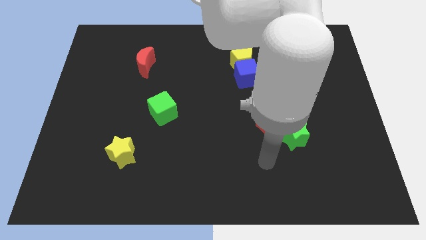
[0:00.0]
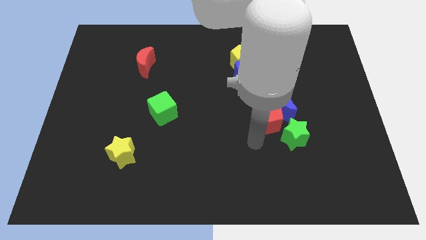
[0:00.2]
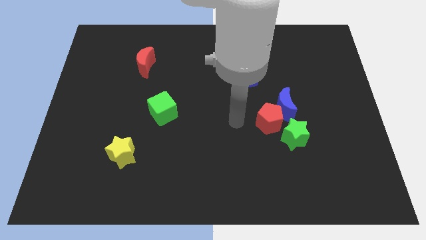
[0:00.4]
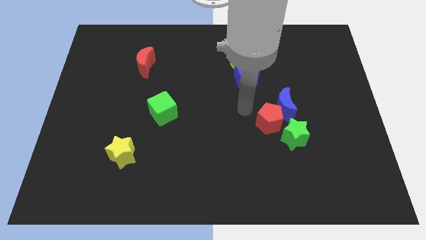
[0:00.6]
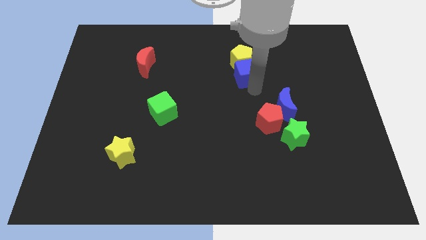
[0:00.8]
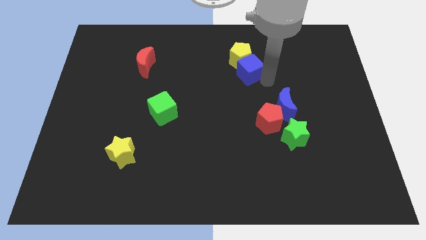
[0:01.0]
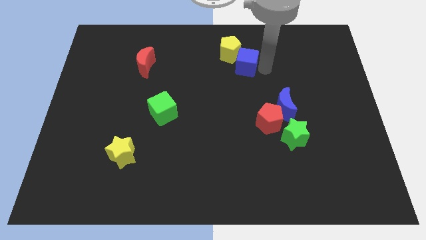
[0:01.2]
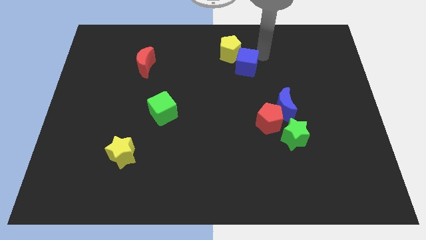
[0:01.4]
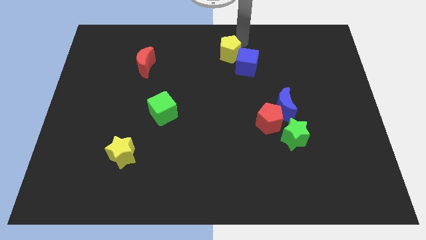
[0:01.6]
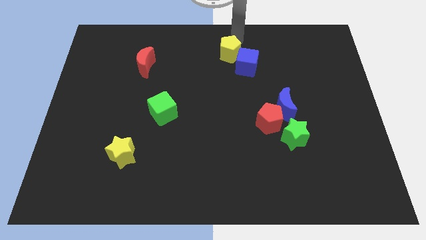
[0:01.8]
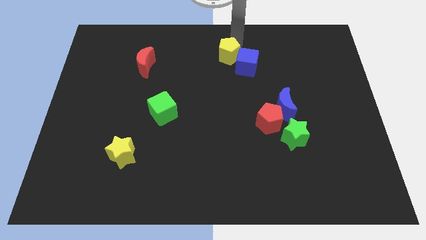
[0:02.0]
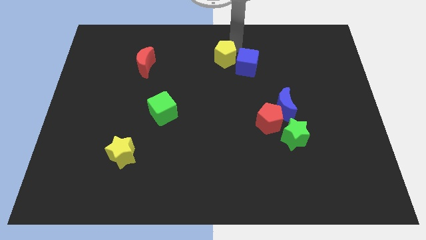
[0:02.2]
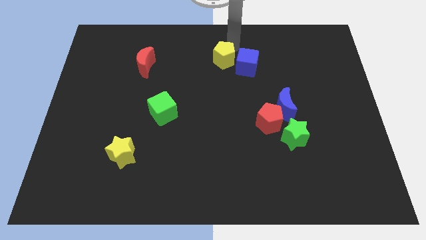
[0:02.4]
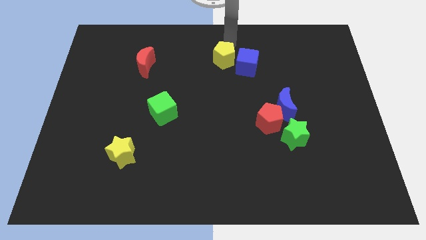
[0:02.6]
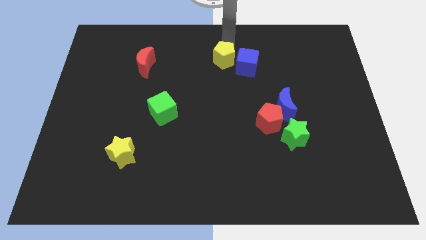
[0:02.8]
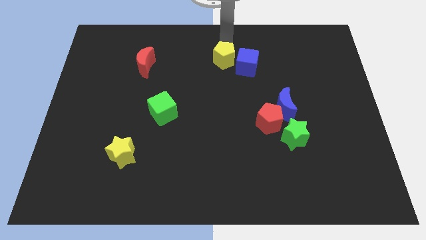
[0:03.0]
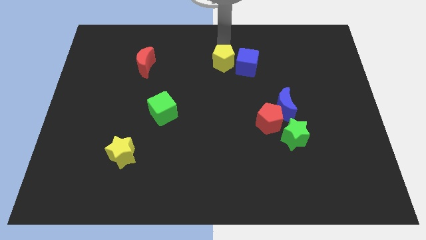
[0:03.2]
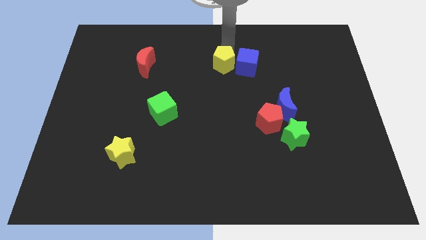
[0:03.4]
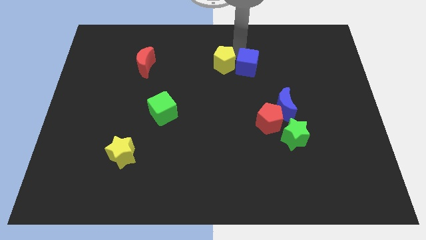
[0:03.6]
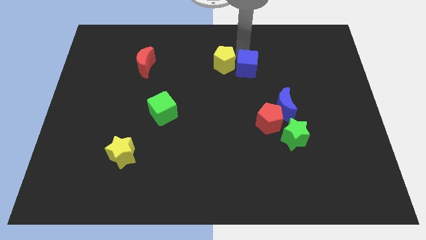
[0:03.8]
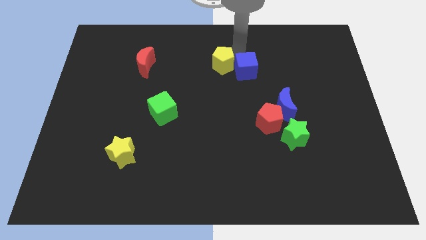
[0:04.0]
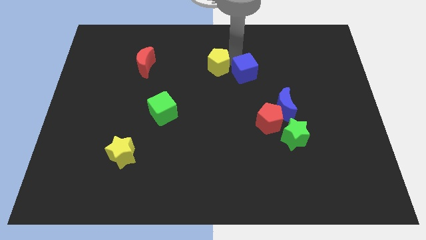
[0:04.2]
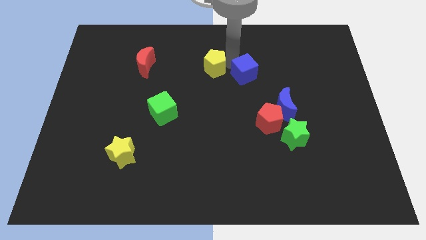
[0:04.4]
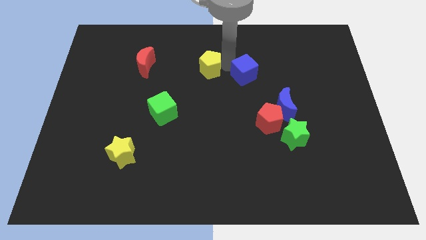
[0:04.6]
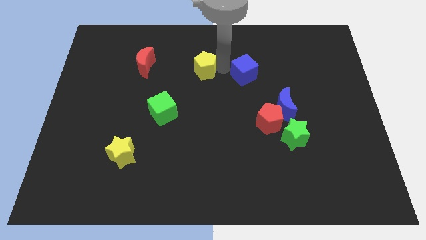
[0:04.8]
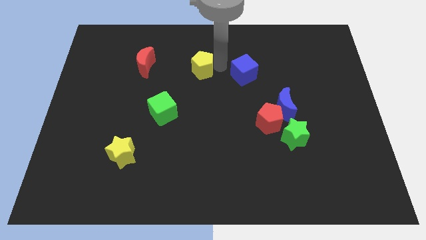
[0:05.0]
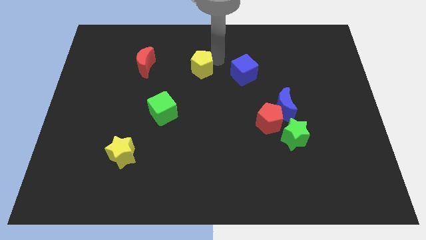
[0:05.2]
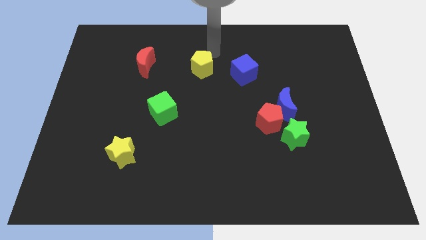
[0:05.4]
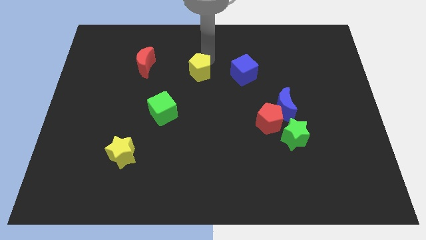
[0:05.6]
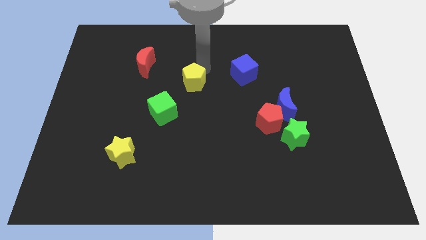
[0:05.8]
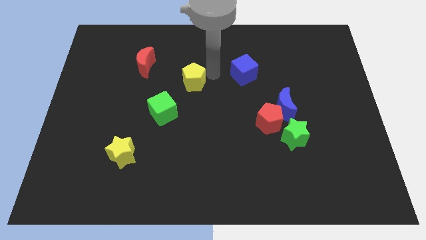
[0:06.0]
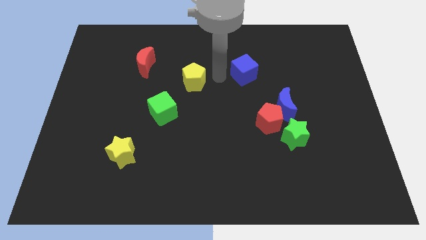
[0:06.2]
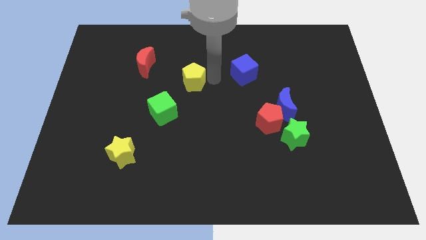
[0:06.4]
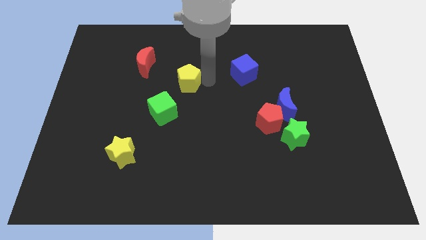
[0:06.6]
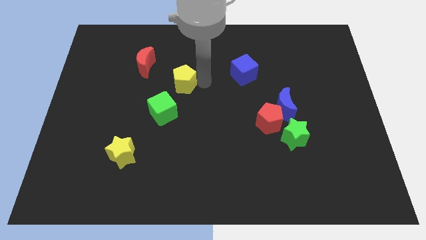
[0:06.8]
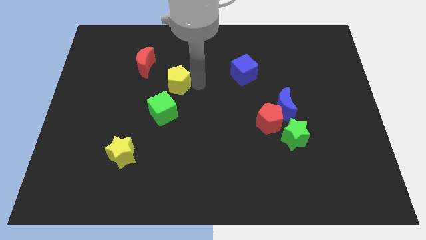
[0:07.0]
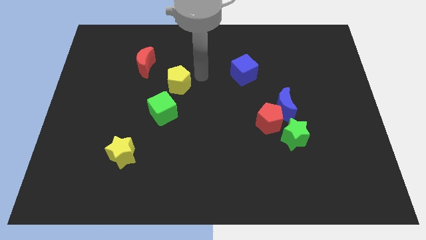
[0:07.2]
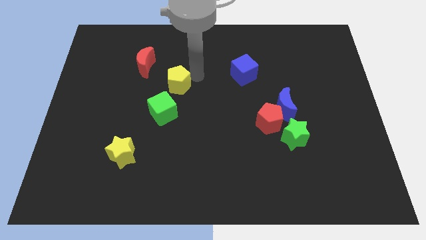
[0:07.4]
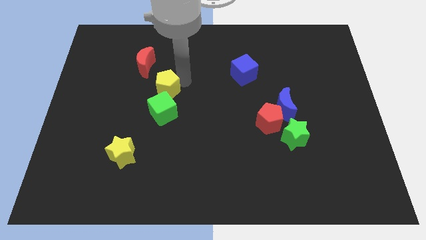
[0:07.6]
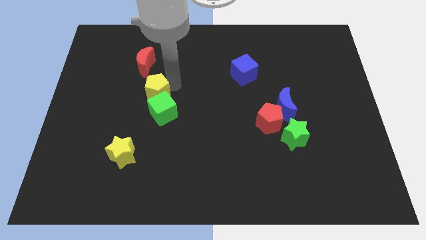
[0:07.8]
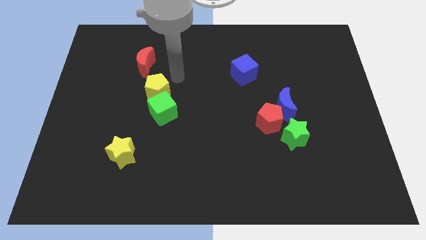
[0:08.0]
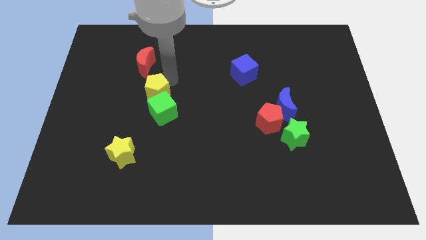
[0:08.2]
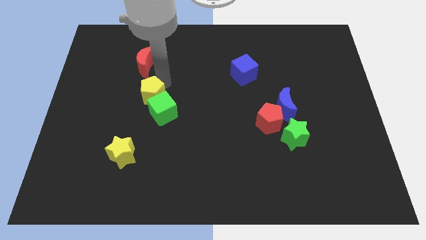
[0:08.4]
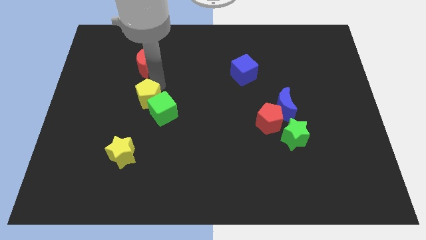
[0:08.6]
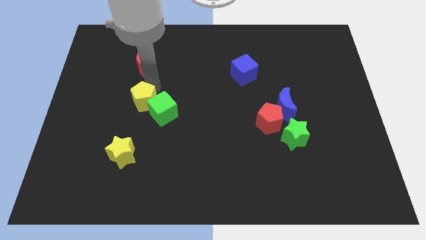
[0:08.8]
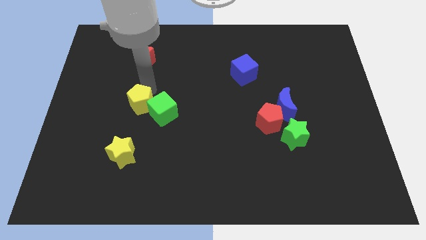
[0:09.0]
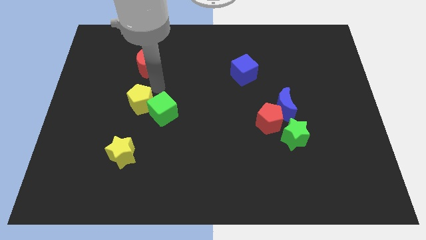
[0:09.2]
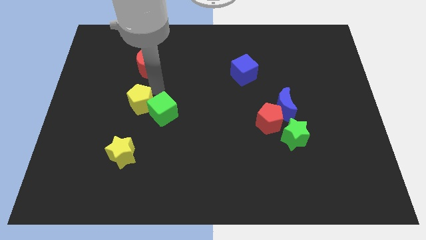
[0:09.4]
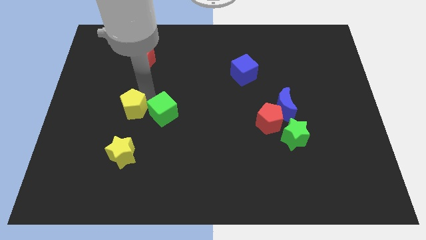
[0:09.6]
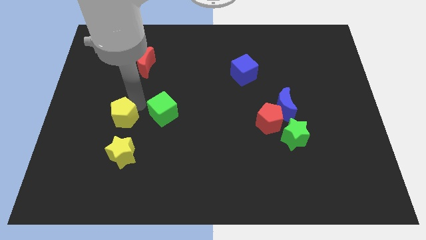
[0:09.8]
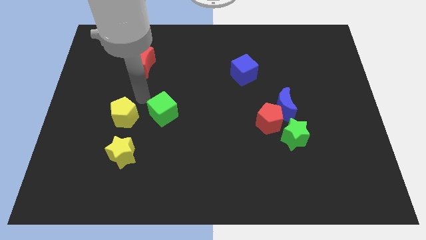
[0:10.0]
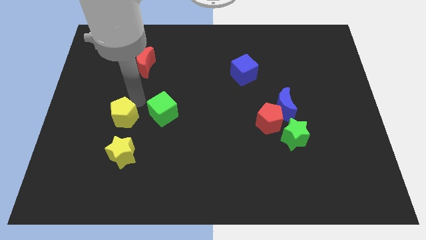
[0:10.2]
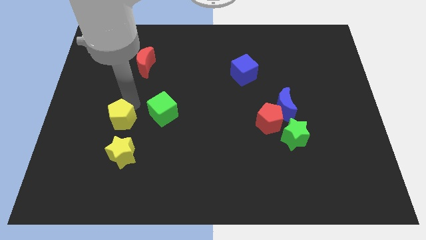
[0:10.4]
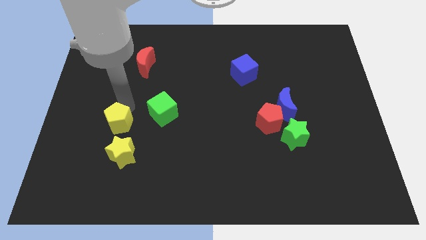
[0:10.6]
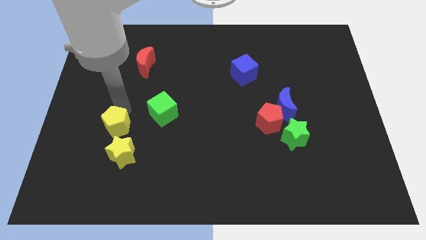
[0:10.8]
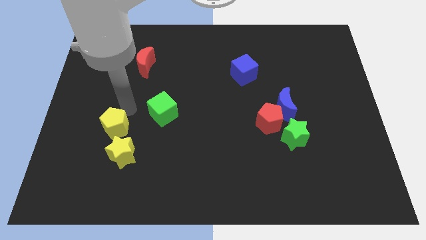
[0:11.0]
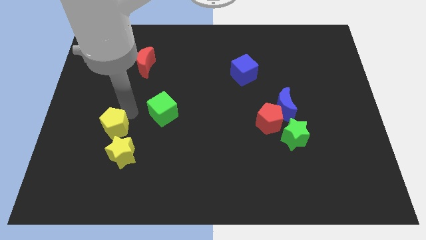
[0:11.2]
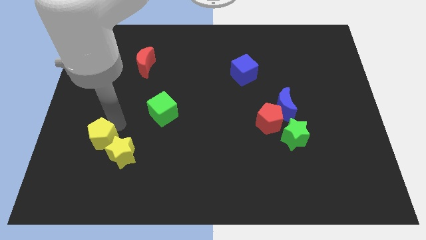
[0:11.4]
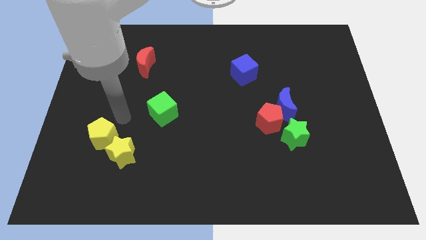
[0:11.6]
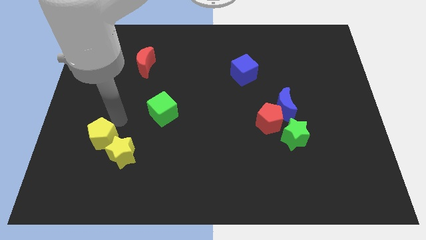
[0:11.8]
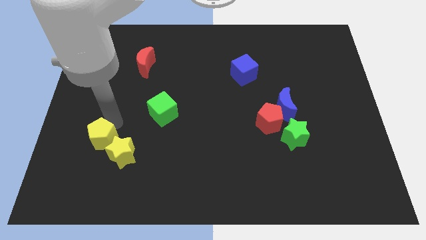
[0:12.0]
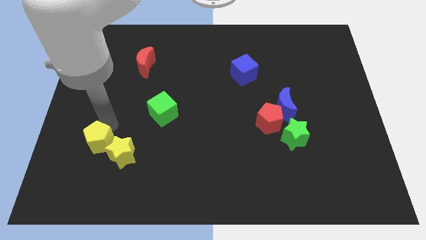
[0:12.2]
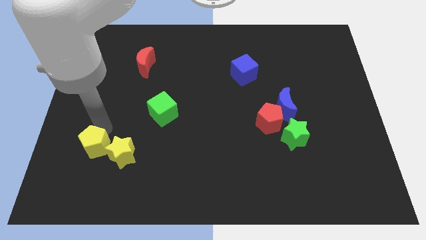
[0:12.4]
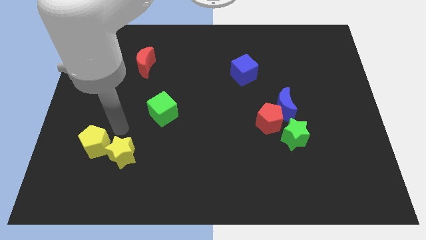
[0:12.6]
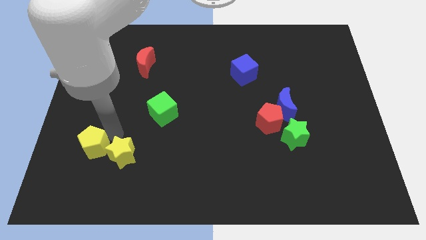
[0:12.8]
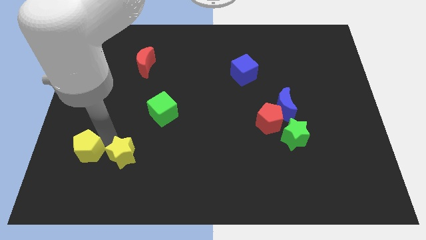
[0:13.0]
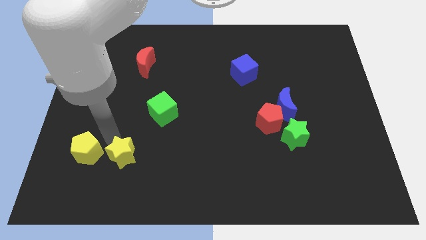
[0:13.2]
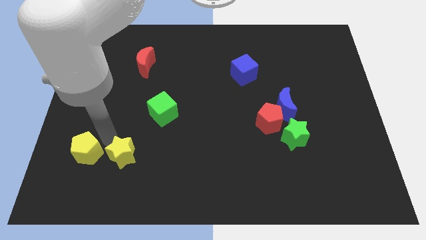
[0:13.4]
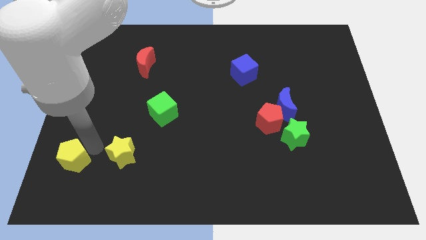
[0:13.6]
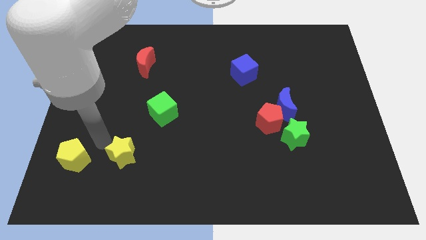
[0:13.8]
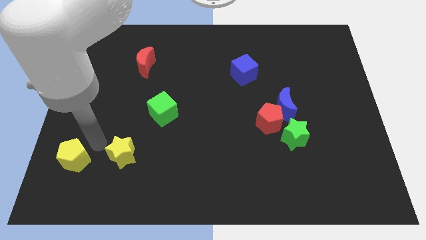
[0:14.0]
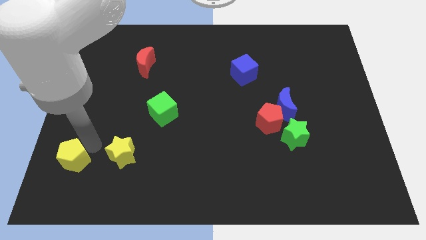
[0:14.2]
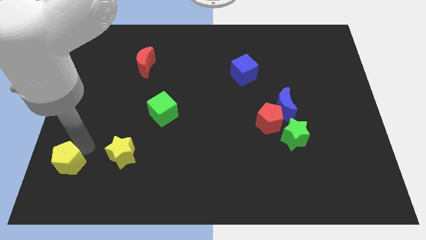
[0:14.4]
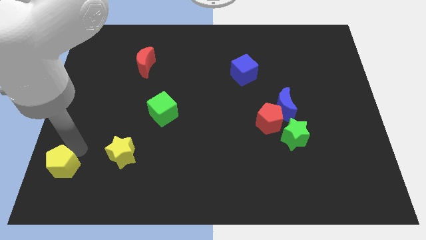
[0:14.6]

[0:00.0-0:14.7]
put the yellow pentagon to the lower left corner
